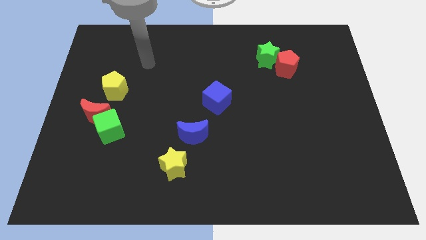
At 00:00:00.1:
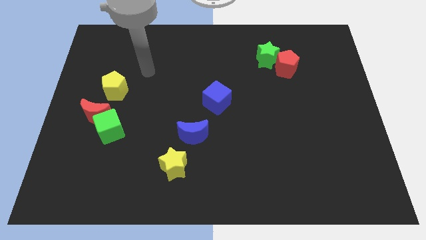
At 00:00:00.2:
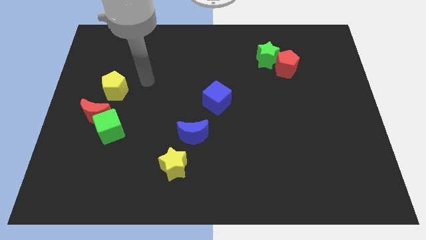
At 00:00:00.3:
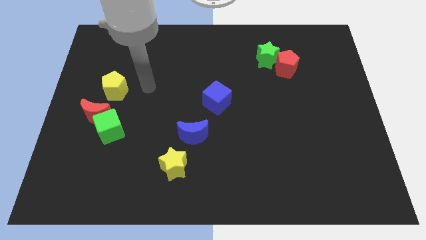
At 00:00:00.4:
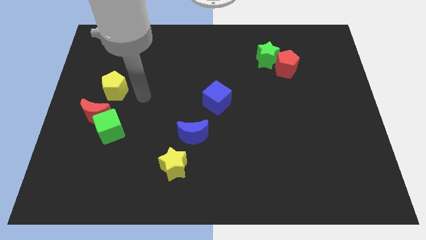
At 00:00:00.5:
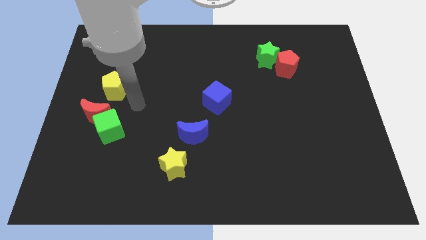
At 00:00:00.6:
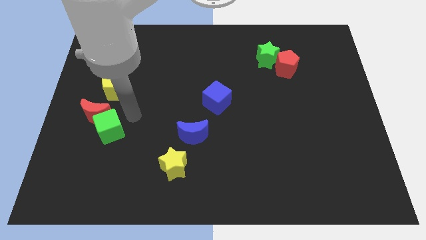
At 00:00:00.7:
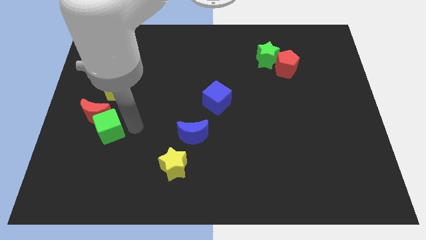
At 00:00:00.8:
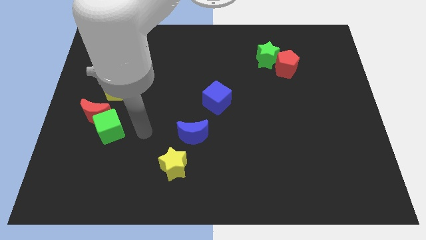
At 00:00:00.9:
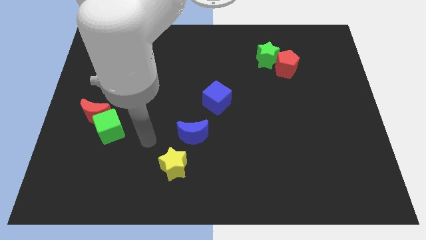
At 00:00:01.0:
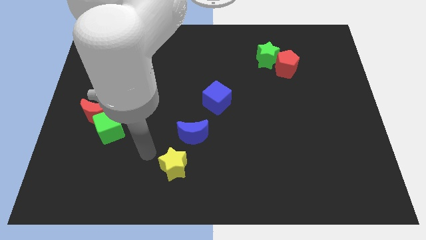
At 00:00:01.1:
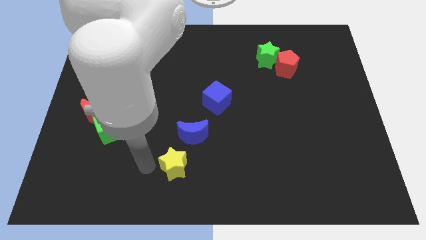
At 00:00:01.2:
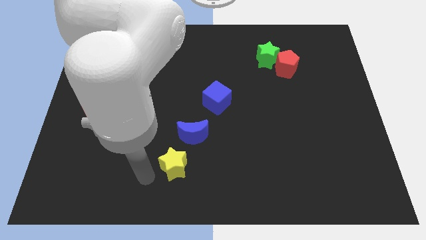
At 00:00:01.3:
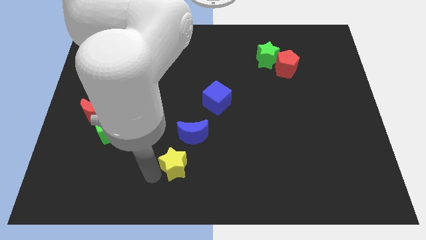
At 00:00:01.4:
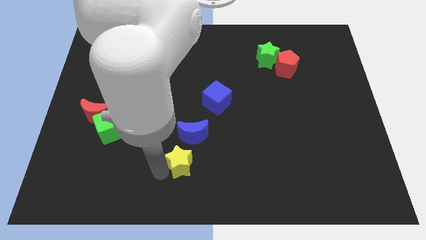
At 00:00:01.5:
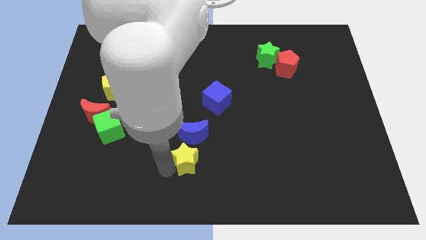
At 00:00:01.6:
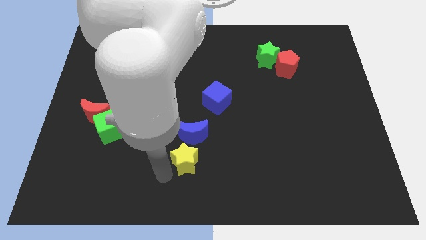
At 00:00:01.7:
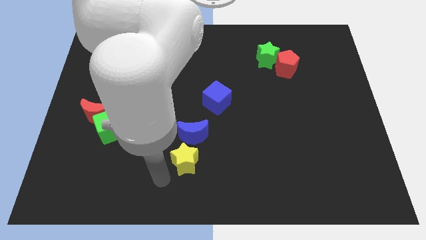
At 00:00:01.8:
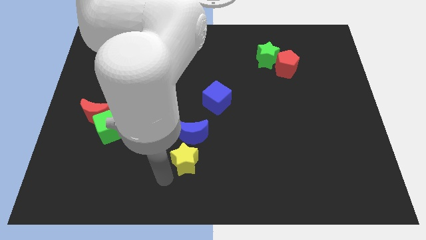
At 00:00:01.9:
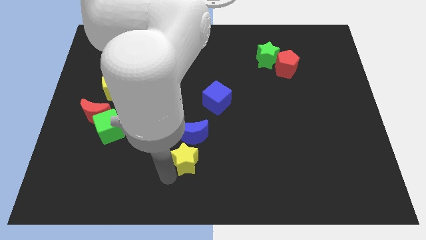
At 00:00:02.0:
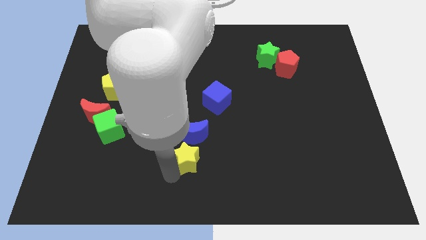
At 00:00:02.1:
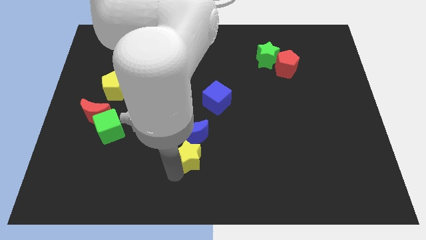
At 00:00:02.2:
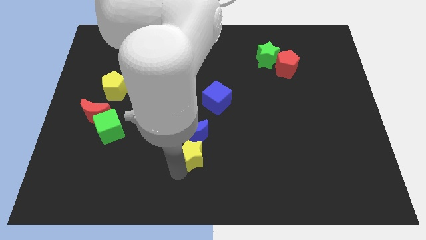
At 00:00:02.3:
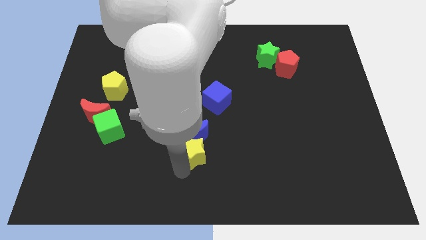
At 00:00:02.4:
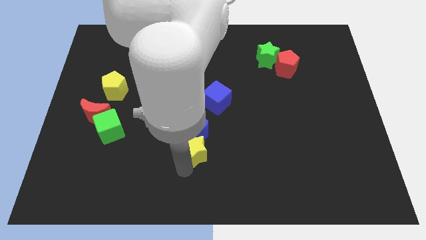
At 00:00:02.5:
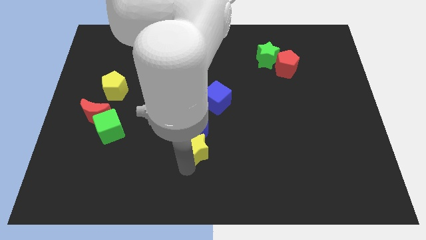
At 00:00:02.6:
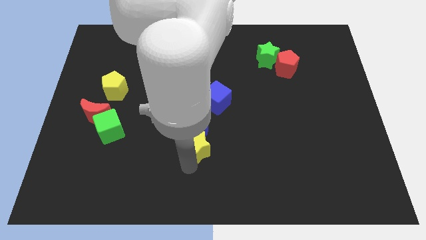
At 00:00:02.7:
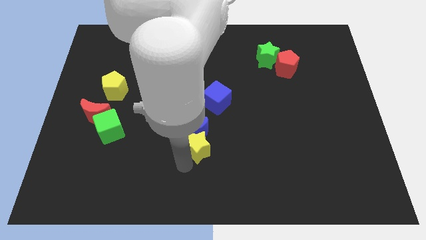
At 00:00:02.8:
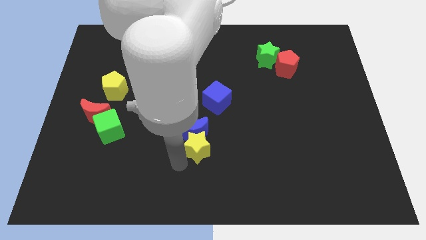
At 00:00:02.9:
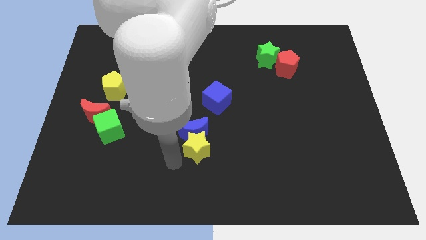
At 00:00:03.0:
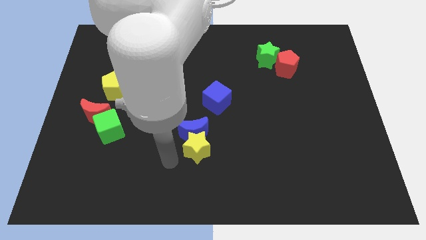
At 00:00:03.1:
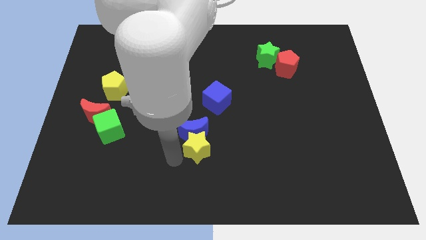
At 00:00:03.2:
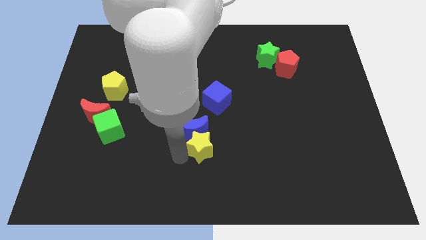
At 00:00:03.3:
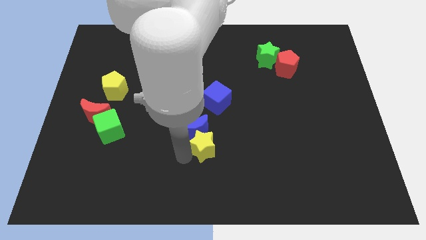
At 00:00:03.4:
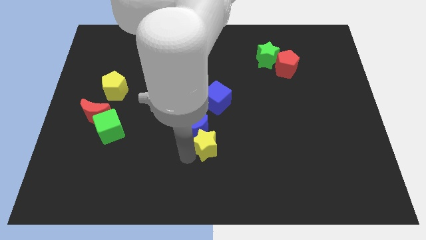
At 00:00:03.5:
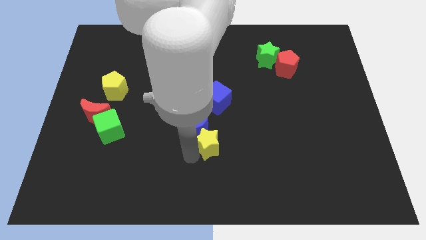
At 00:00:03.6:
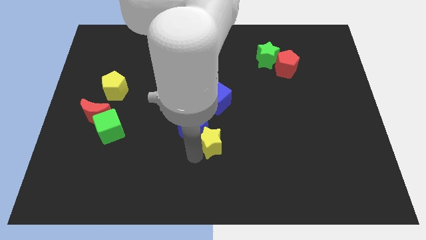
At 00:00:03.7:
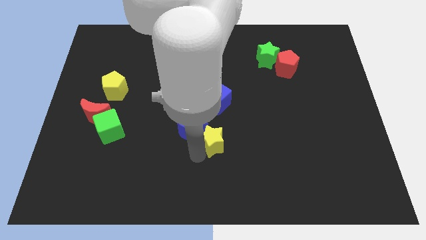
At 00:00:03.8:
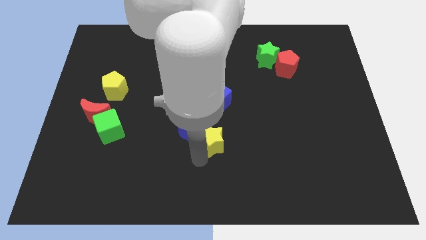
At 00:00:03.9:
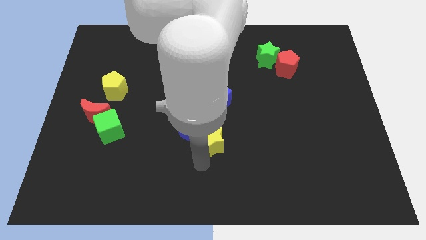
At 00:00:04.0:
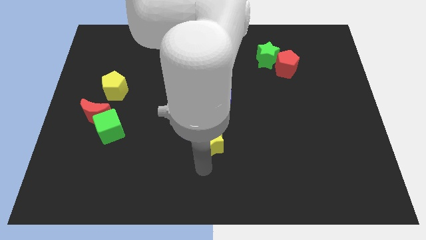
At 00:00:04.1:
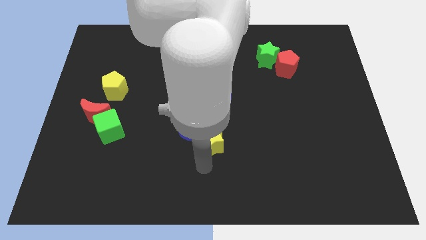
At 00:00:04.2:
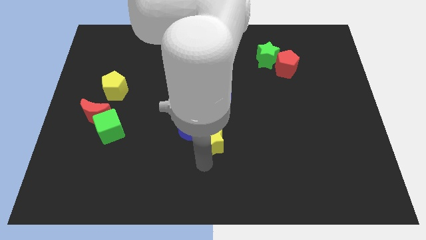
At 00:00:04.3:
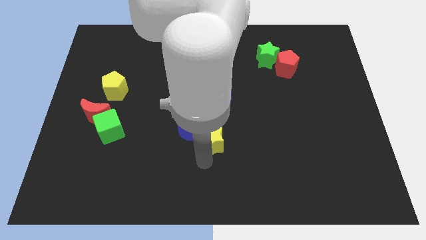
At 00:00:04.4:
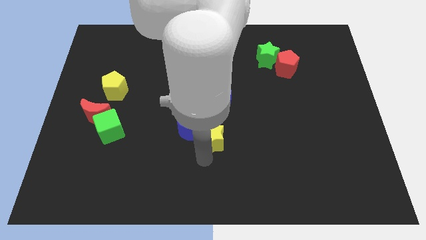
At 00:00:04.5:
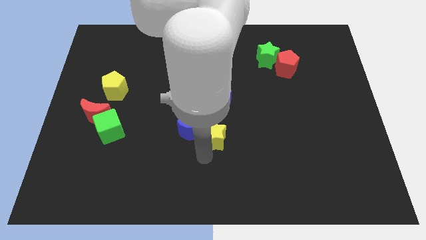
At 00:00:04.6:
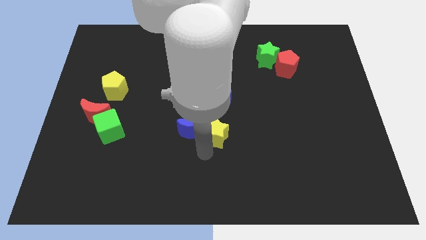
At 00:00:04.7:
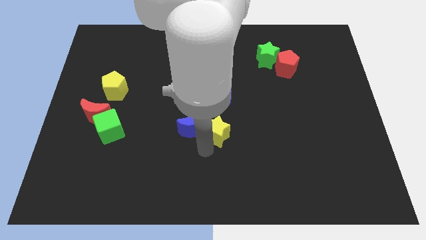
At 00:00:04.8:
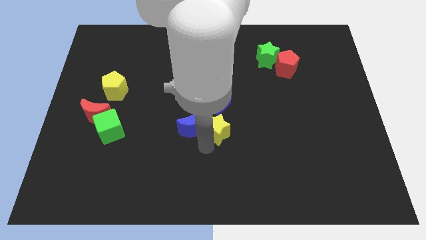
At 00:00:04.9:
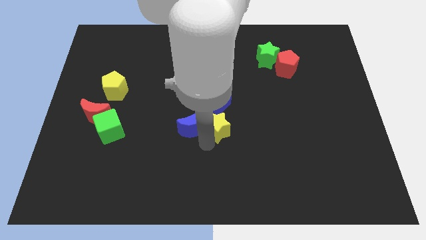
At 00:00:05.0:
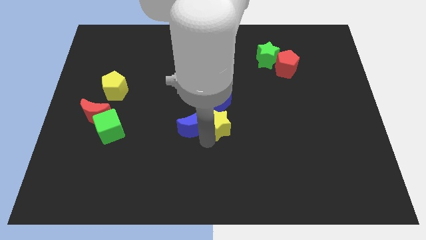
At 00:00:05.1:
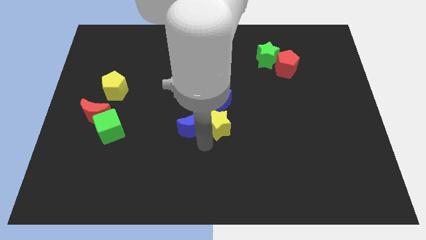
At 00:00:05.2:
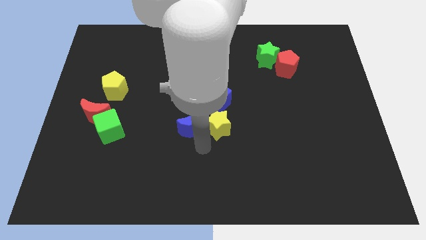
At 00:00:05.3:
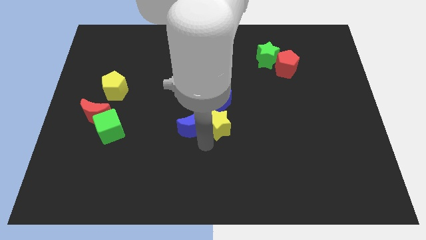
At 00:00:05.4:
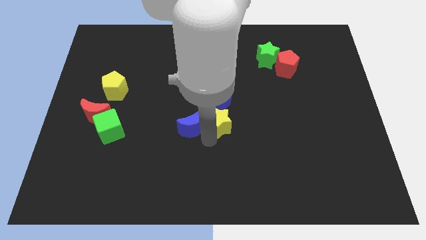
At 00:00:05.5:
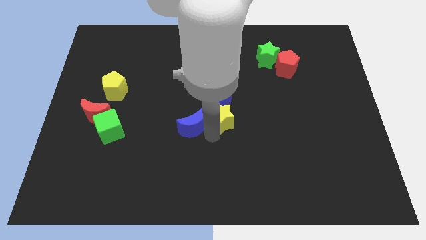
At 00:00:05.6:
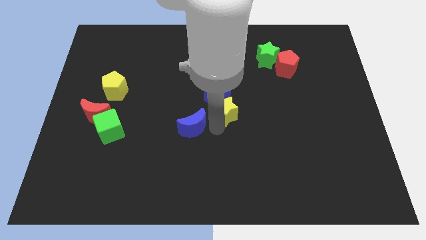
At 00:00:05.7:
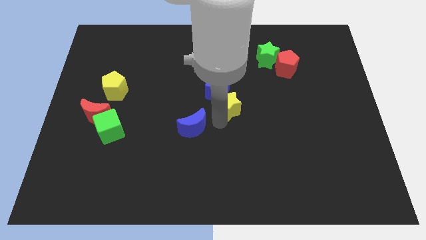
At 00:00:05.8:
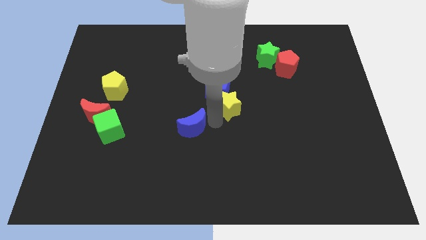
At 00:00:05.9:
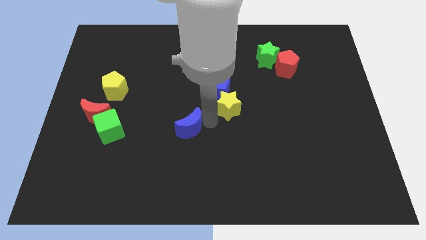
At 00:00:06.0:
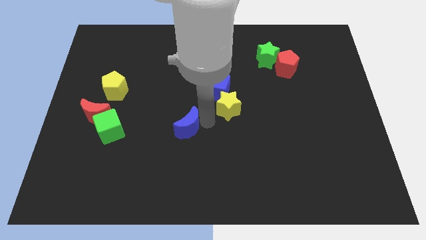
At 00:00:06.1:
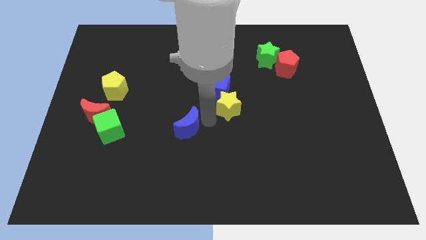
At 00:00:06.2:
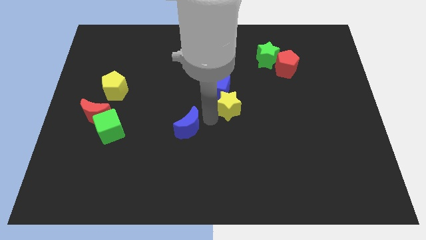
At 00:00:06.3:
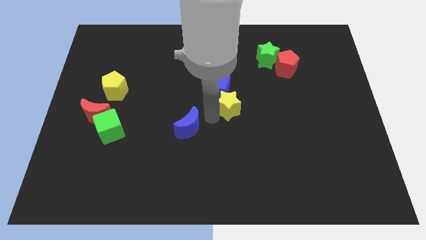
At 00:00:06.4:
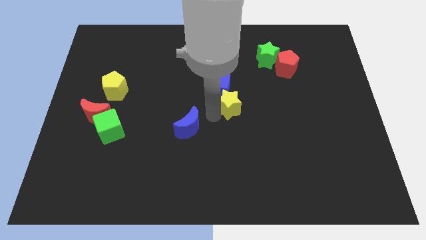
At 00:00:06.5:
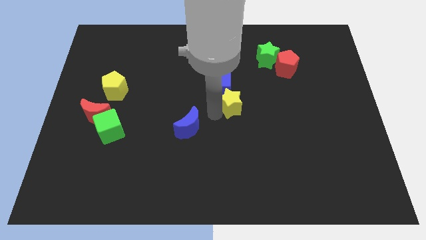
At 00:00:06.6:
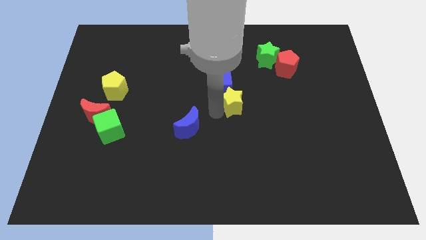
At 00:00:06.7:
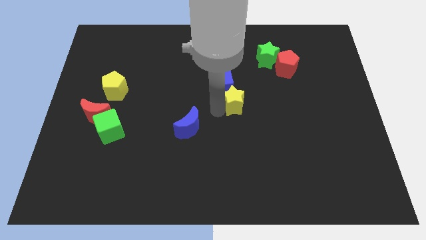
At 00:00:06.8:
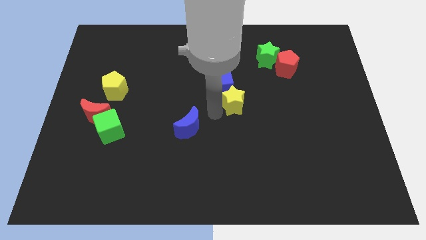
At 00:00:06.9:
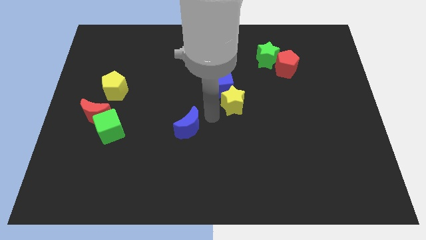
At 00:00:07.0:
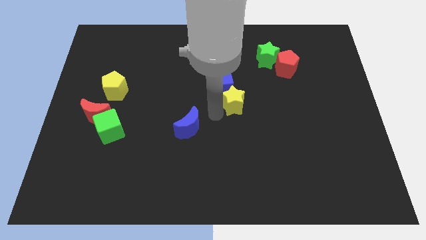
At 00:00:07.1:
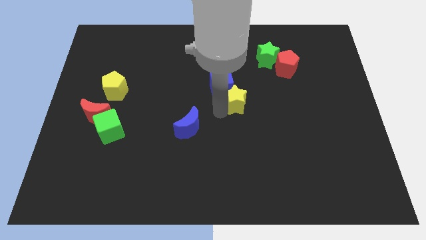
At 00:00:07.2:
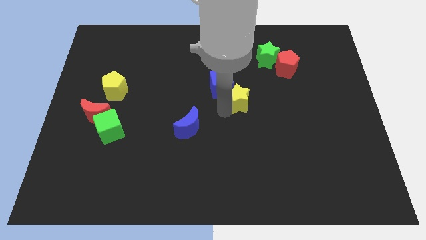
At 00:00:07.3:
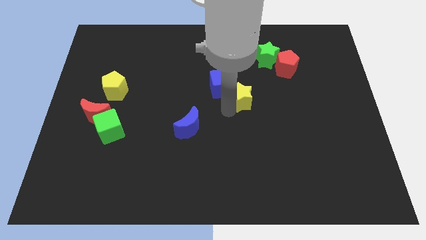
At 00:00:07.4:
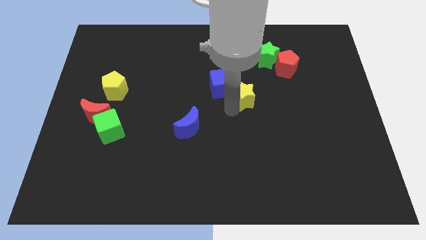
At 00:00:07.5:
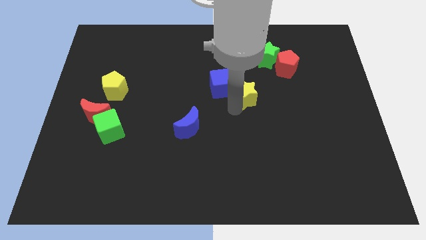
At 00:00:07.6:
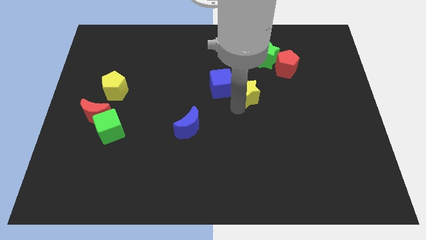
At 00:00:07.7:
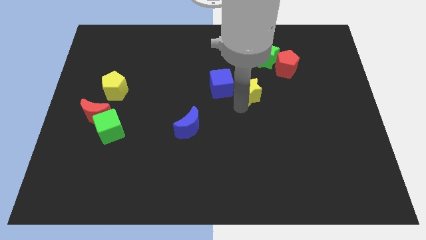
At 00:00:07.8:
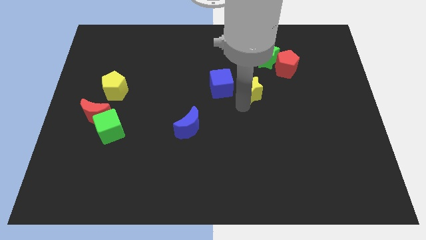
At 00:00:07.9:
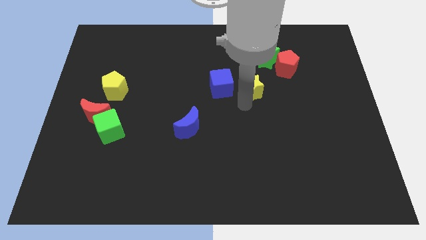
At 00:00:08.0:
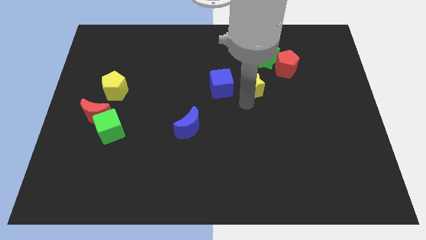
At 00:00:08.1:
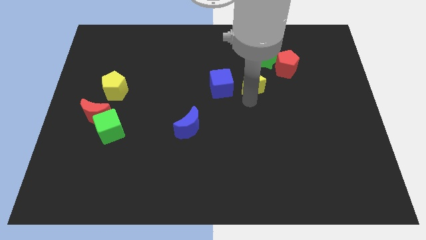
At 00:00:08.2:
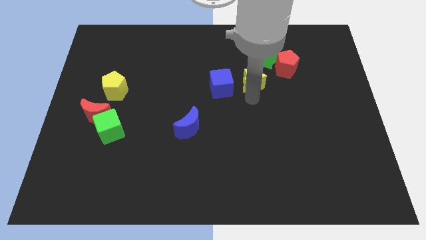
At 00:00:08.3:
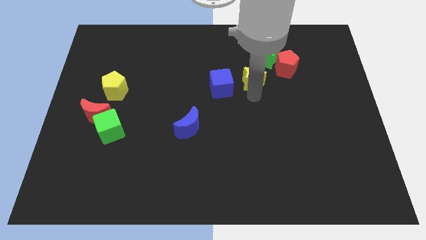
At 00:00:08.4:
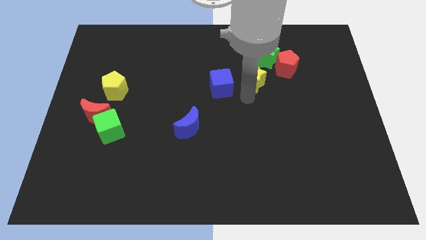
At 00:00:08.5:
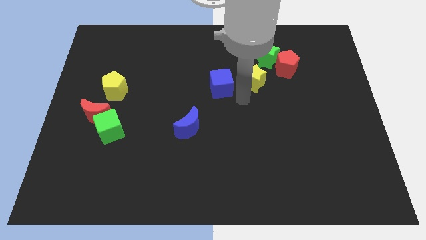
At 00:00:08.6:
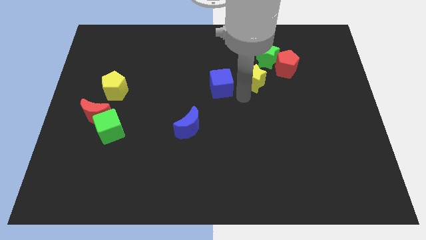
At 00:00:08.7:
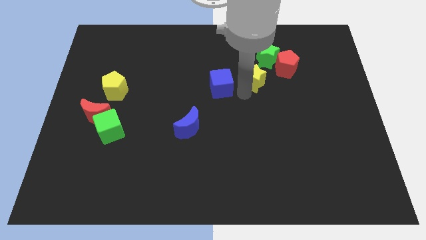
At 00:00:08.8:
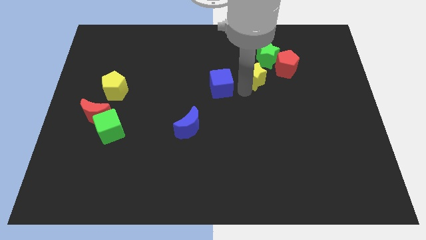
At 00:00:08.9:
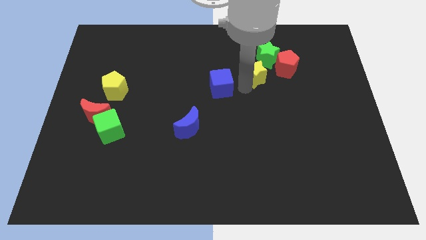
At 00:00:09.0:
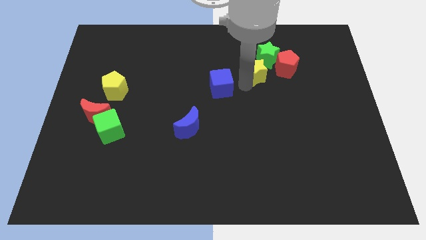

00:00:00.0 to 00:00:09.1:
push the yellow star next to the green star
